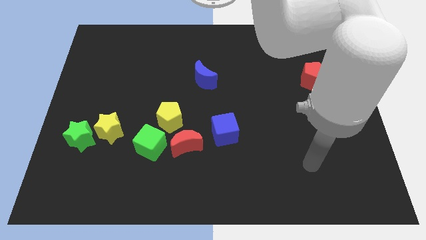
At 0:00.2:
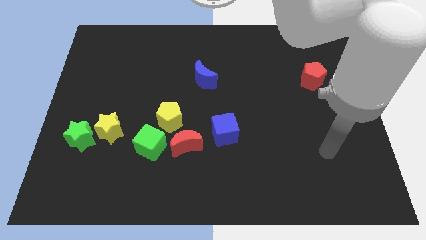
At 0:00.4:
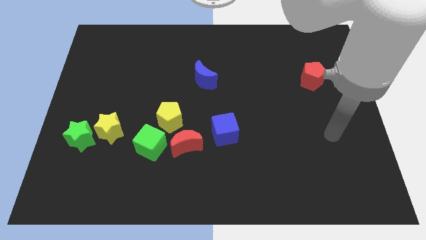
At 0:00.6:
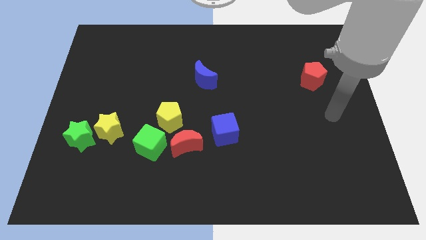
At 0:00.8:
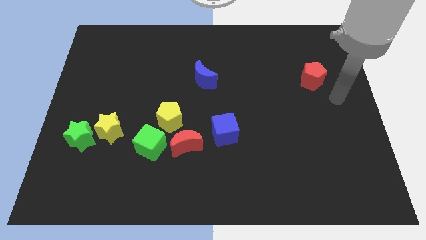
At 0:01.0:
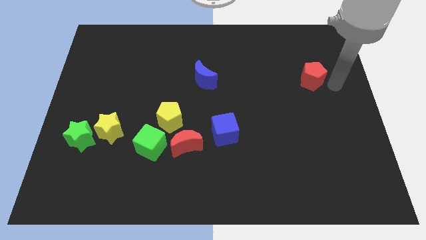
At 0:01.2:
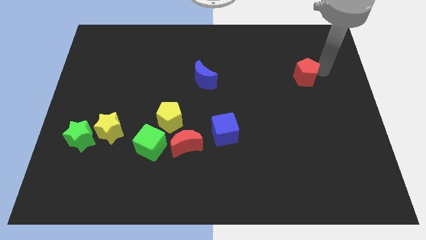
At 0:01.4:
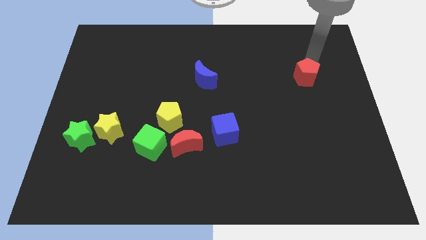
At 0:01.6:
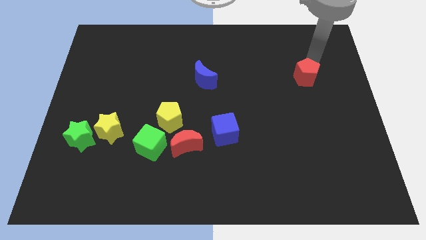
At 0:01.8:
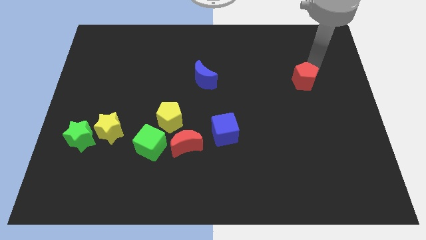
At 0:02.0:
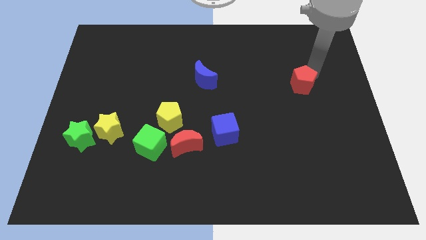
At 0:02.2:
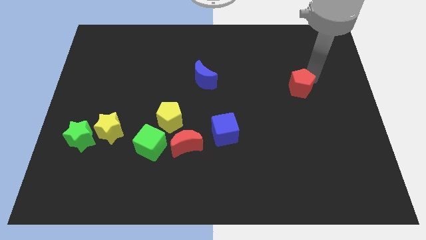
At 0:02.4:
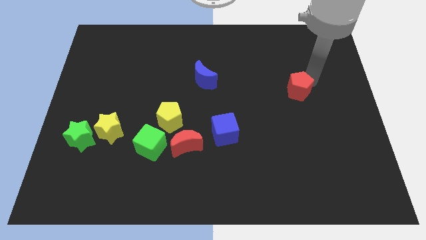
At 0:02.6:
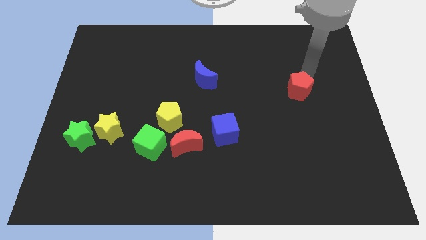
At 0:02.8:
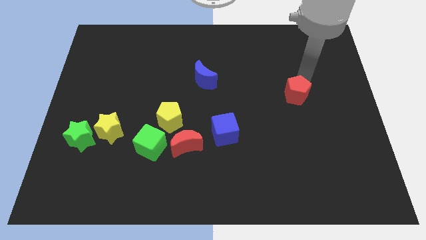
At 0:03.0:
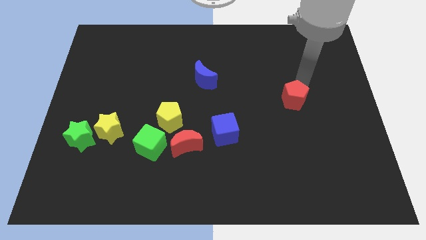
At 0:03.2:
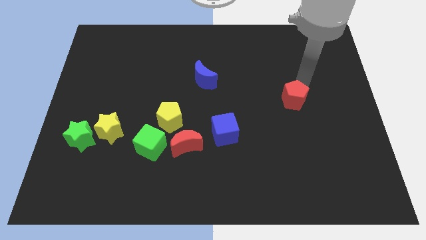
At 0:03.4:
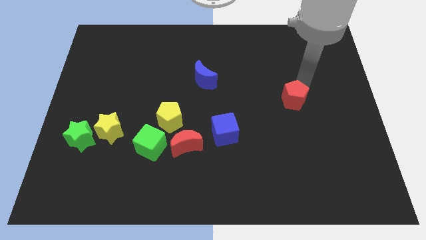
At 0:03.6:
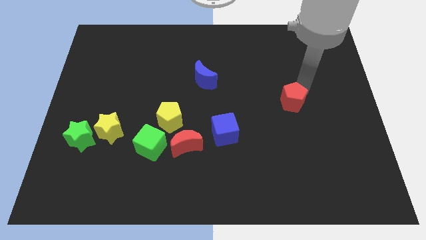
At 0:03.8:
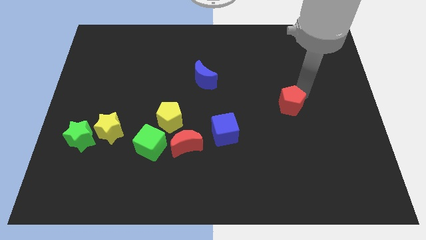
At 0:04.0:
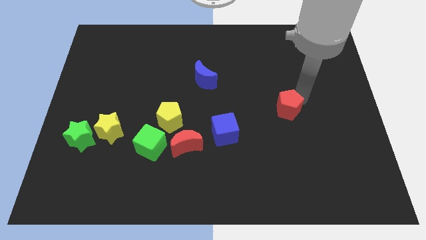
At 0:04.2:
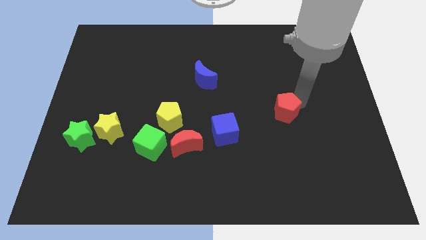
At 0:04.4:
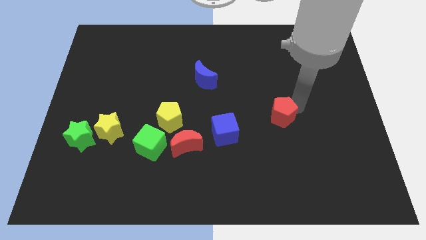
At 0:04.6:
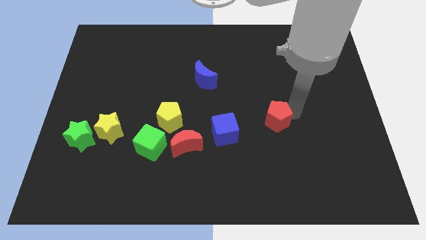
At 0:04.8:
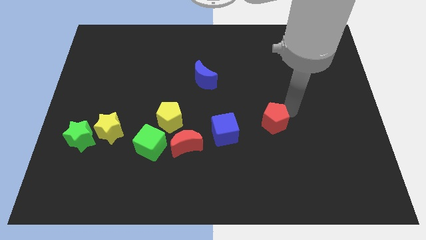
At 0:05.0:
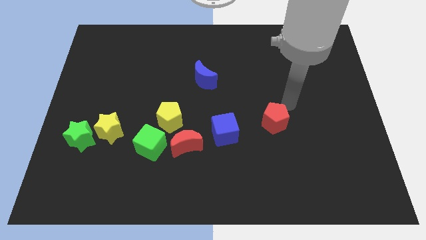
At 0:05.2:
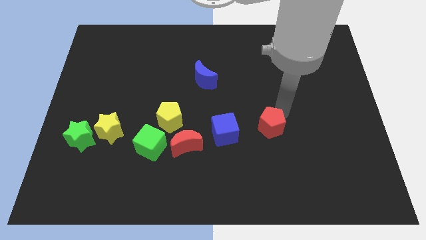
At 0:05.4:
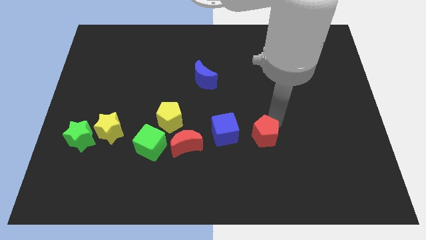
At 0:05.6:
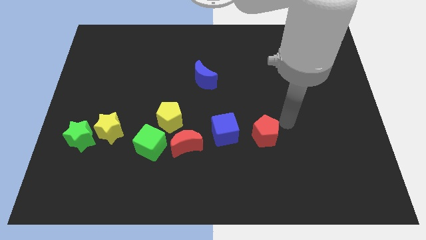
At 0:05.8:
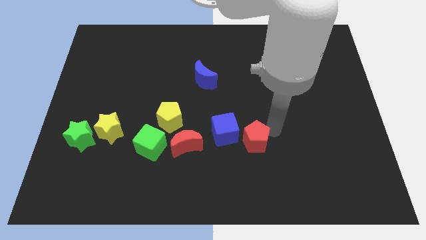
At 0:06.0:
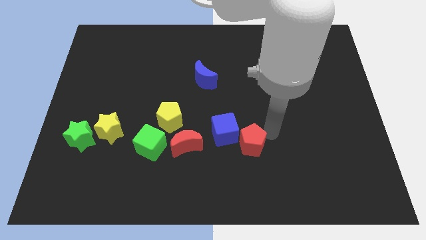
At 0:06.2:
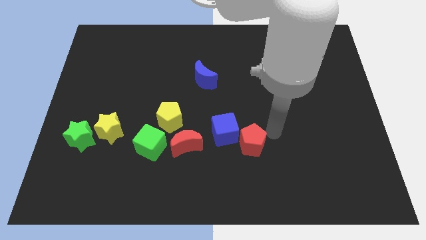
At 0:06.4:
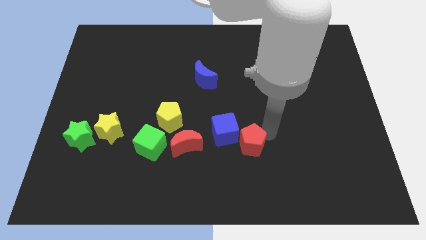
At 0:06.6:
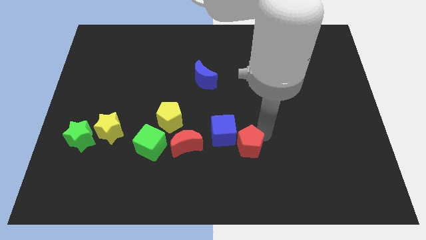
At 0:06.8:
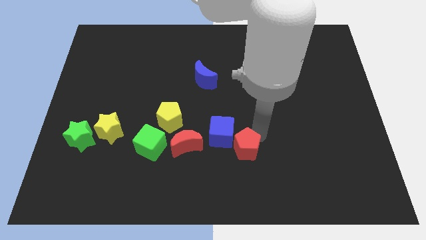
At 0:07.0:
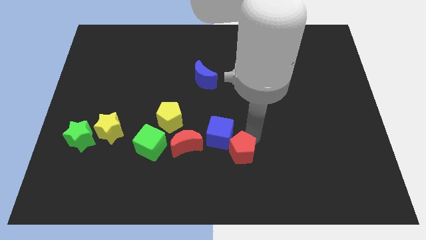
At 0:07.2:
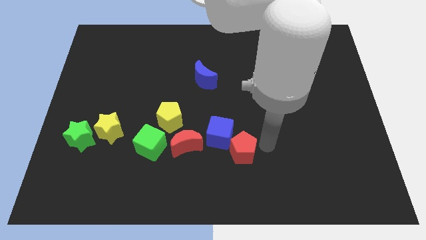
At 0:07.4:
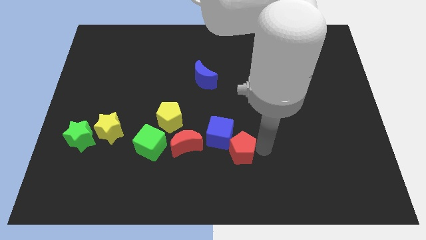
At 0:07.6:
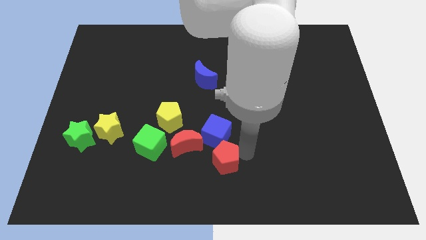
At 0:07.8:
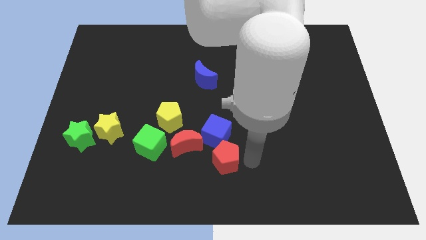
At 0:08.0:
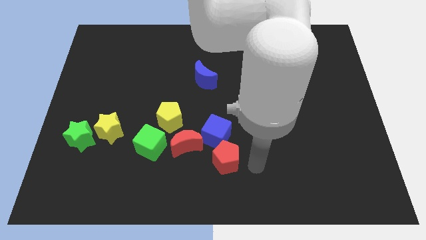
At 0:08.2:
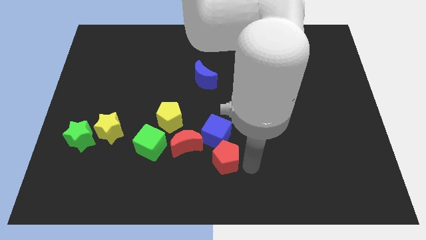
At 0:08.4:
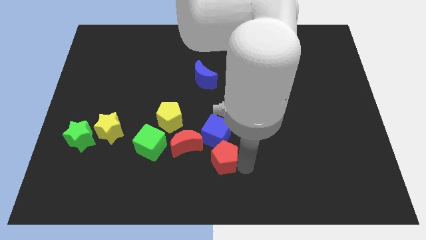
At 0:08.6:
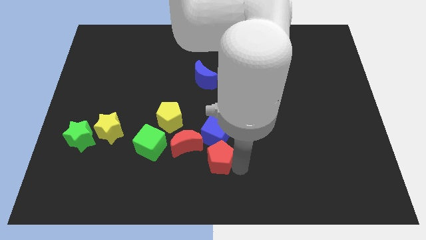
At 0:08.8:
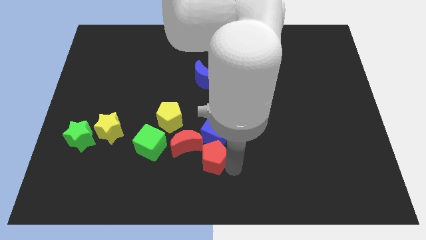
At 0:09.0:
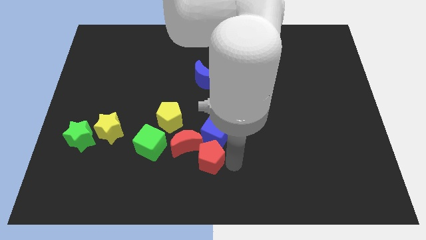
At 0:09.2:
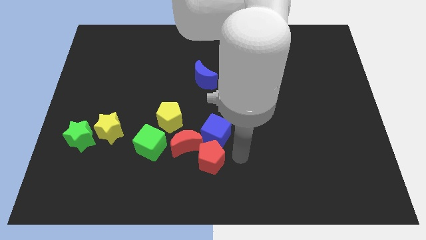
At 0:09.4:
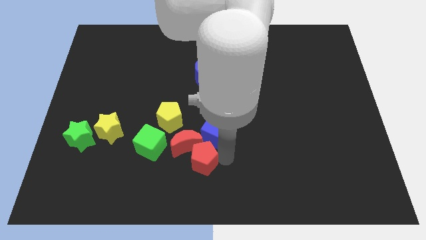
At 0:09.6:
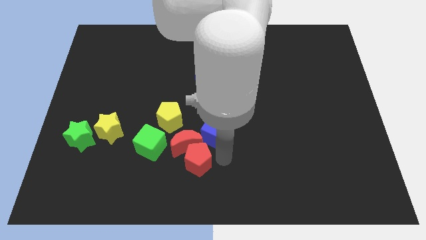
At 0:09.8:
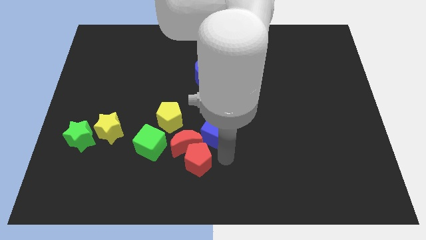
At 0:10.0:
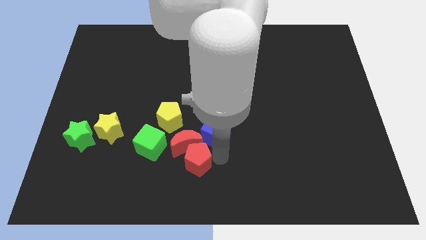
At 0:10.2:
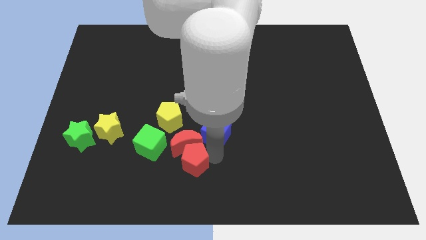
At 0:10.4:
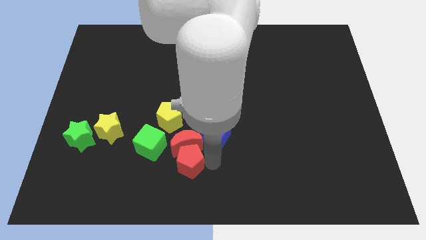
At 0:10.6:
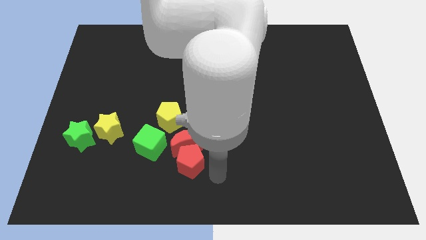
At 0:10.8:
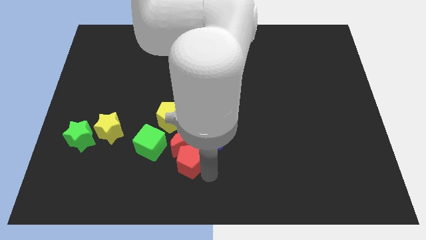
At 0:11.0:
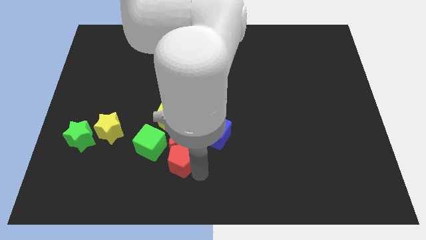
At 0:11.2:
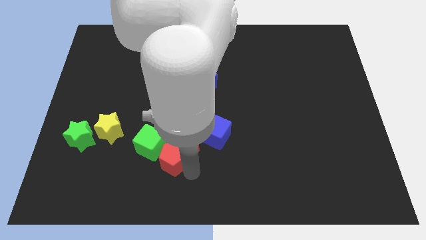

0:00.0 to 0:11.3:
push the red pentagon to the green cube

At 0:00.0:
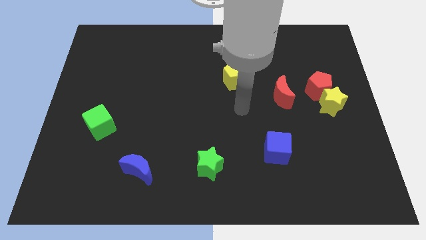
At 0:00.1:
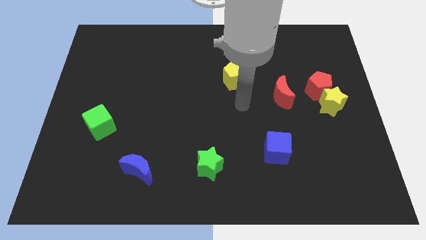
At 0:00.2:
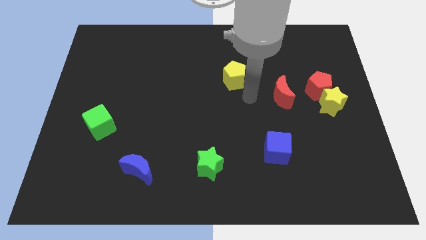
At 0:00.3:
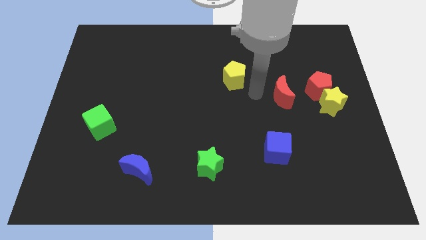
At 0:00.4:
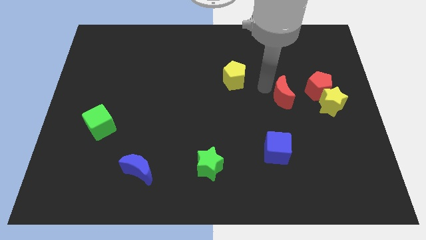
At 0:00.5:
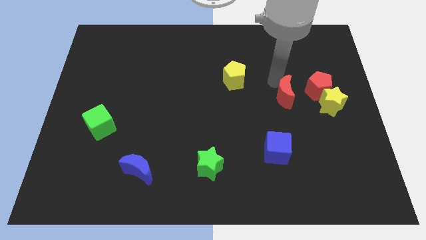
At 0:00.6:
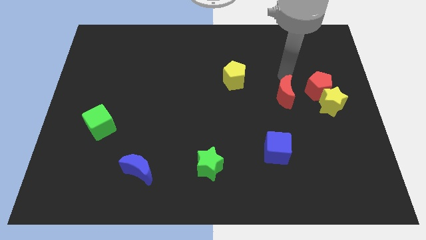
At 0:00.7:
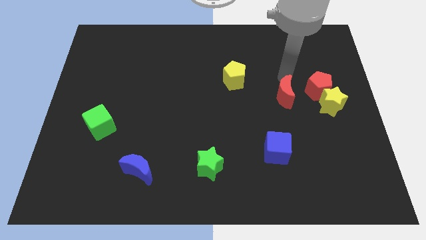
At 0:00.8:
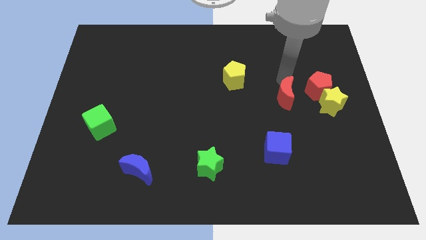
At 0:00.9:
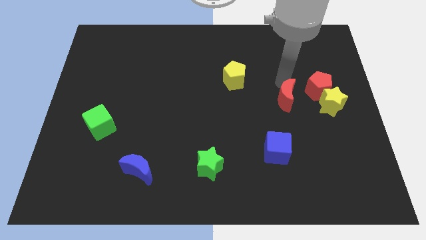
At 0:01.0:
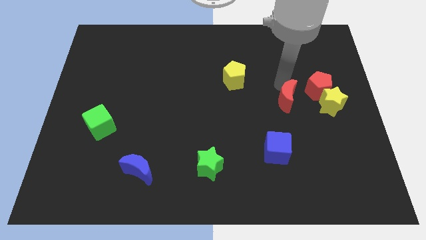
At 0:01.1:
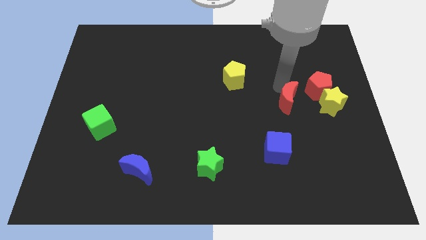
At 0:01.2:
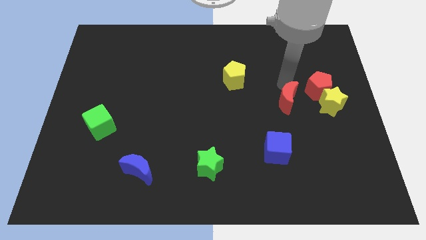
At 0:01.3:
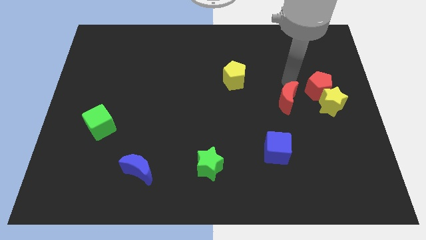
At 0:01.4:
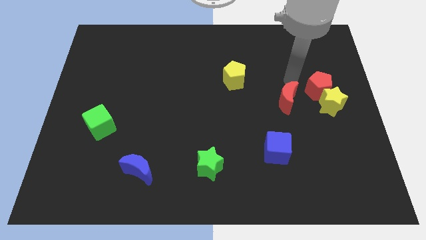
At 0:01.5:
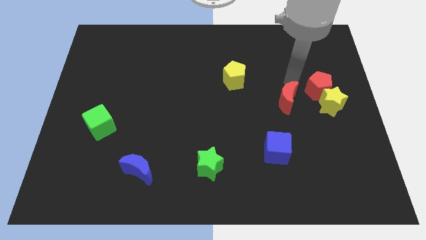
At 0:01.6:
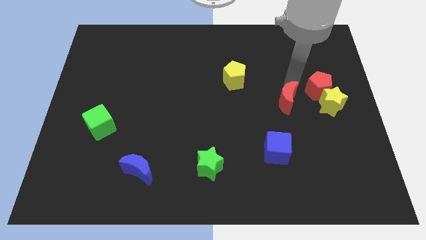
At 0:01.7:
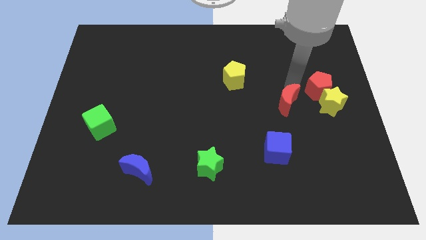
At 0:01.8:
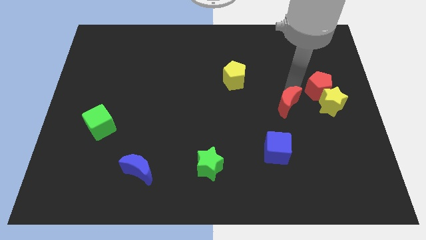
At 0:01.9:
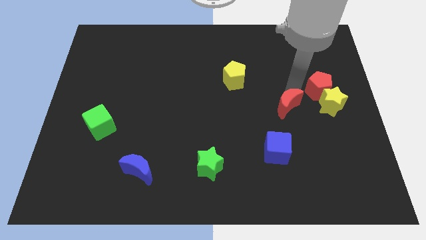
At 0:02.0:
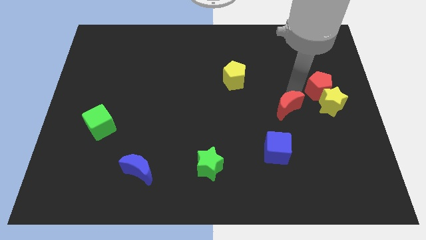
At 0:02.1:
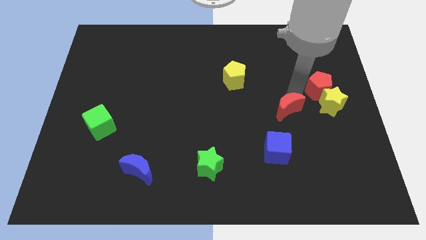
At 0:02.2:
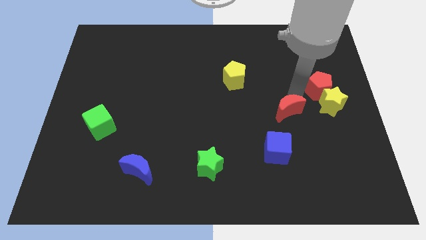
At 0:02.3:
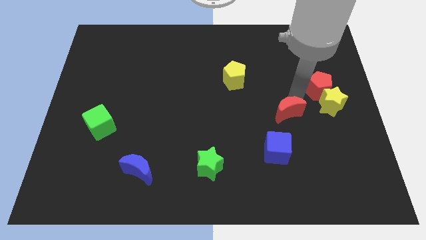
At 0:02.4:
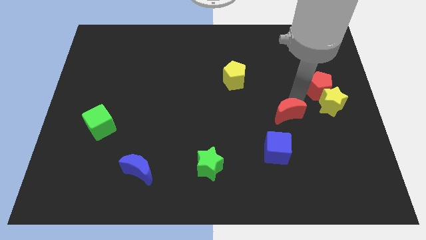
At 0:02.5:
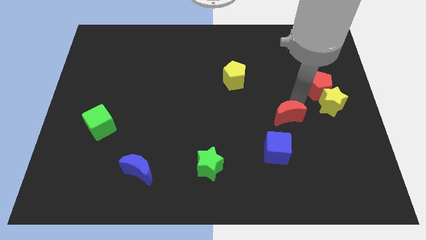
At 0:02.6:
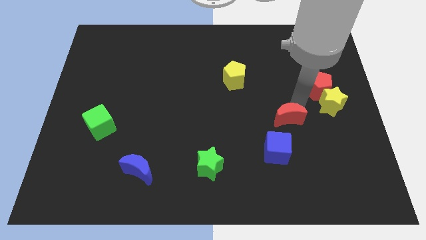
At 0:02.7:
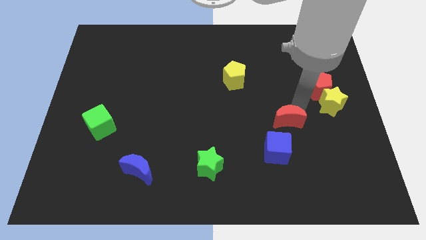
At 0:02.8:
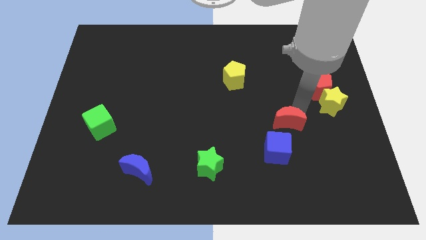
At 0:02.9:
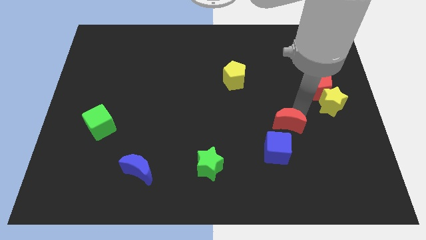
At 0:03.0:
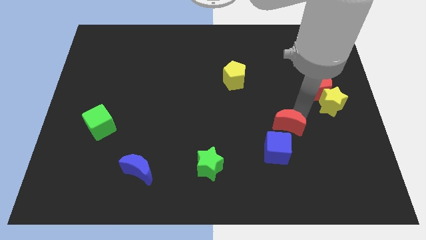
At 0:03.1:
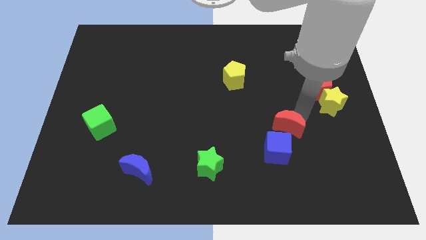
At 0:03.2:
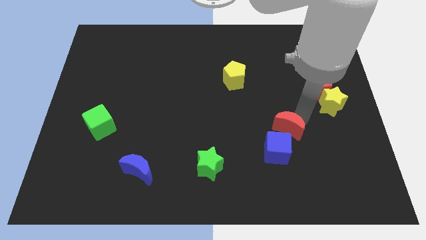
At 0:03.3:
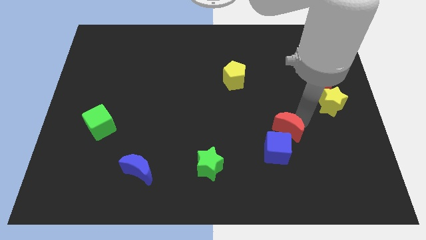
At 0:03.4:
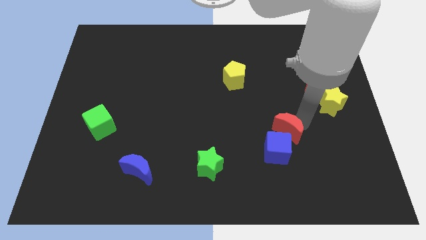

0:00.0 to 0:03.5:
slide the red moon to the blue cube
